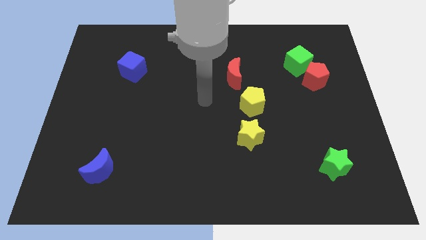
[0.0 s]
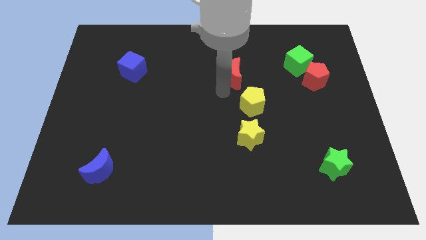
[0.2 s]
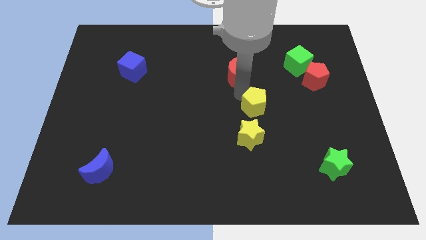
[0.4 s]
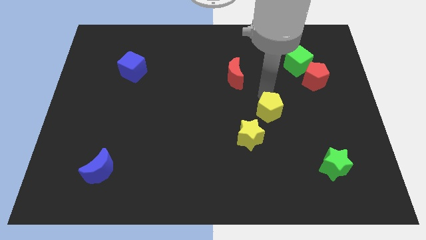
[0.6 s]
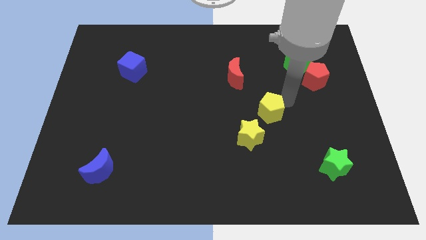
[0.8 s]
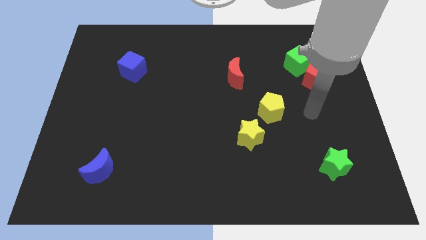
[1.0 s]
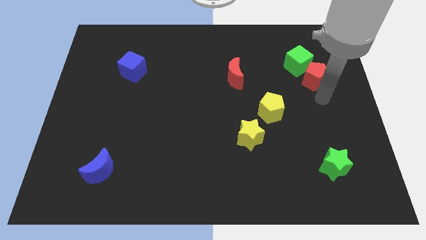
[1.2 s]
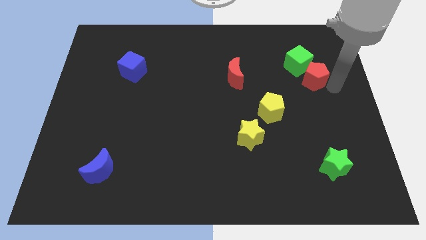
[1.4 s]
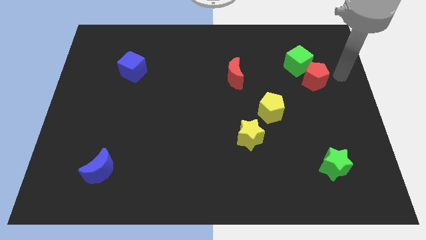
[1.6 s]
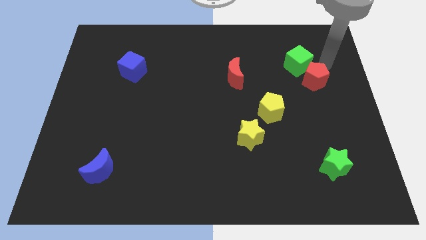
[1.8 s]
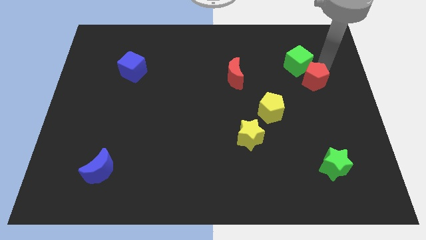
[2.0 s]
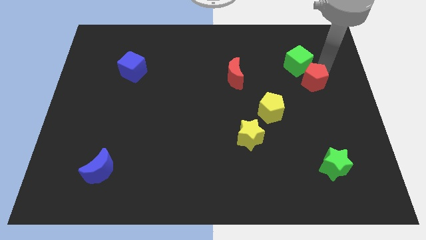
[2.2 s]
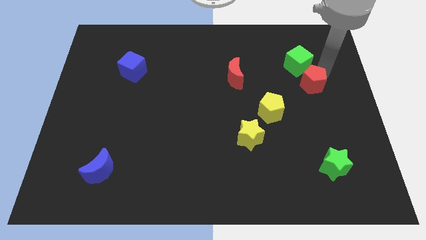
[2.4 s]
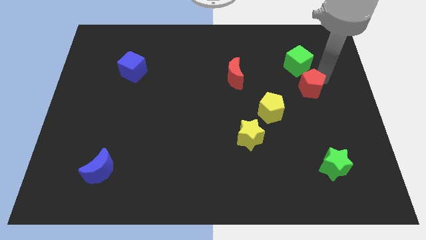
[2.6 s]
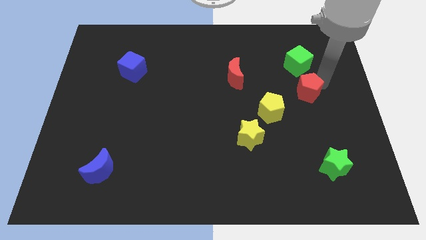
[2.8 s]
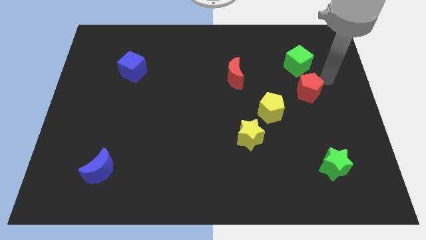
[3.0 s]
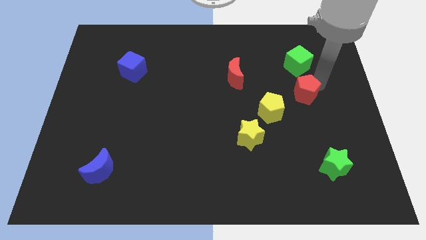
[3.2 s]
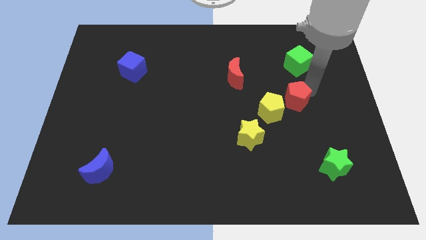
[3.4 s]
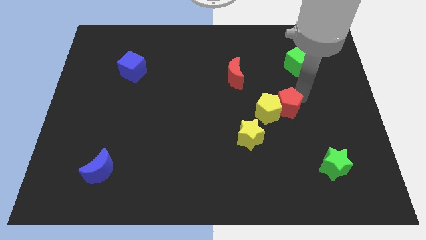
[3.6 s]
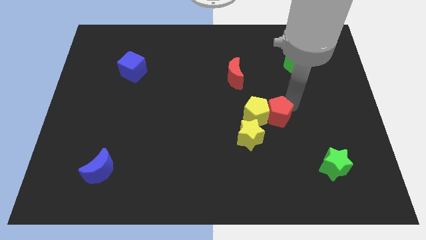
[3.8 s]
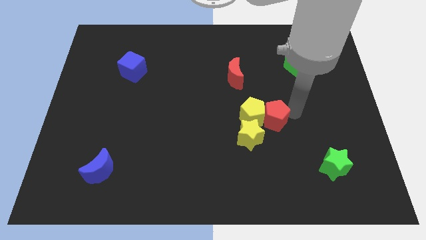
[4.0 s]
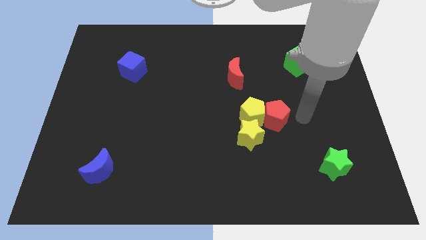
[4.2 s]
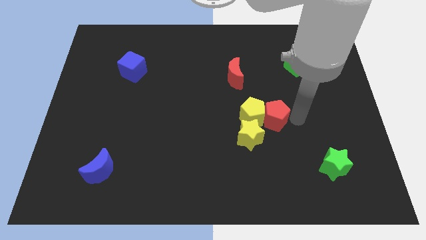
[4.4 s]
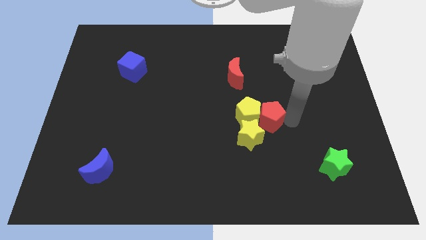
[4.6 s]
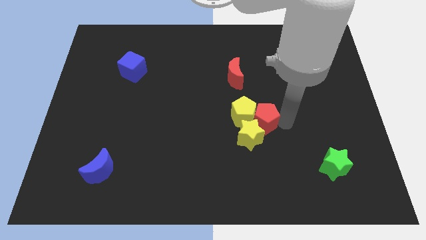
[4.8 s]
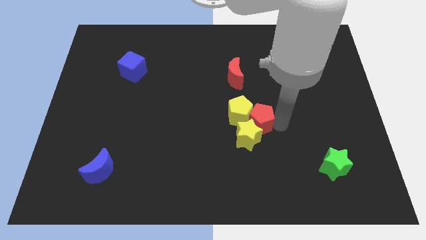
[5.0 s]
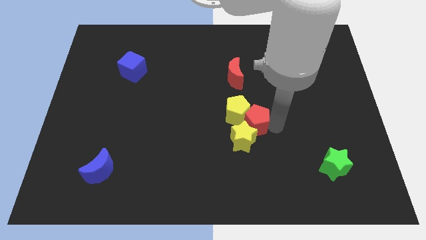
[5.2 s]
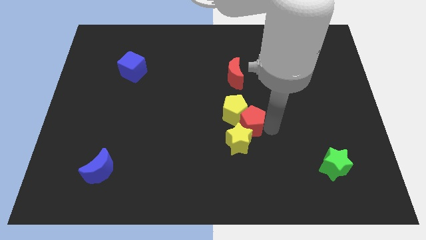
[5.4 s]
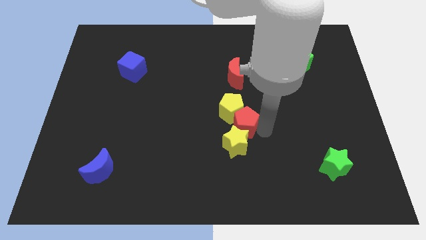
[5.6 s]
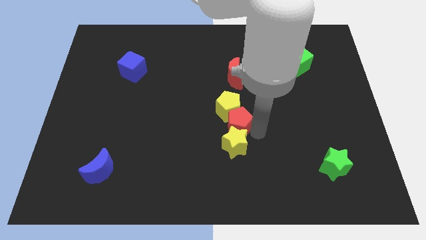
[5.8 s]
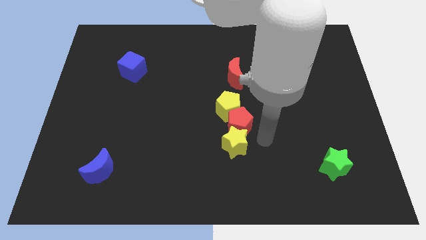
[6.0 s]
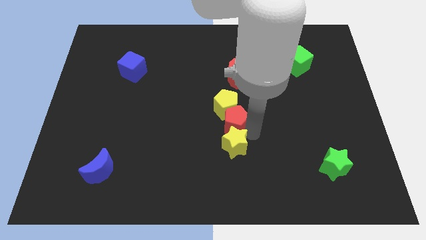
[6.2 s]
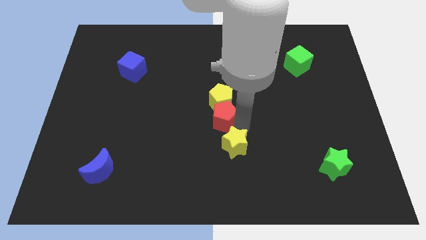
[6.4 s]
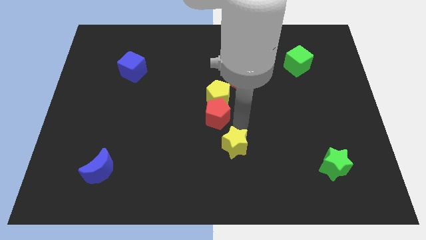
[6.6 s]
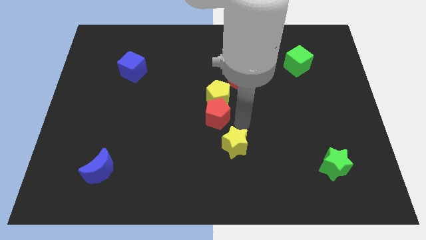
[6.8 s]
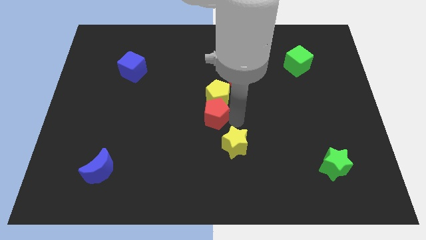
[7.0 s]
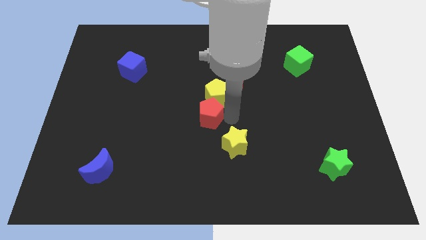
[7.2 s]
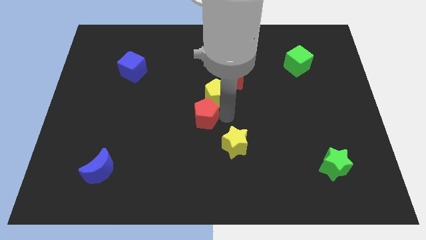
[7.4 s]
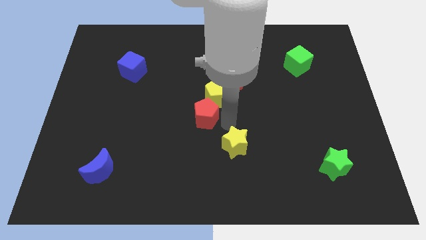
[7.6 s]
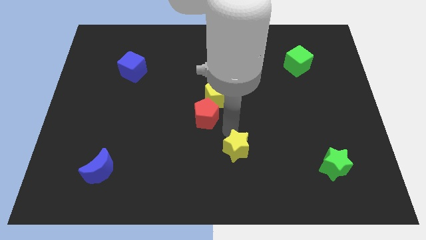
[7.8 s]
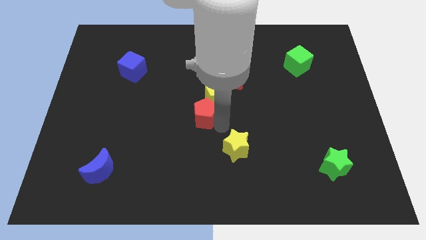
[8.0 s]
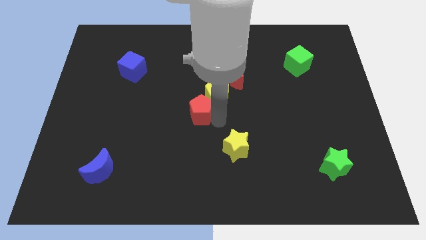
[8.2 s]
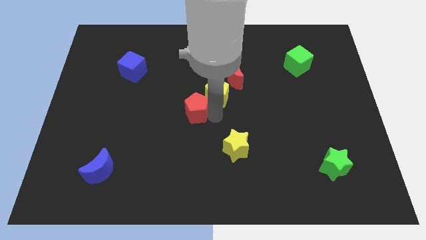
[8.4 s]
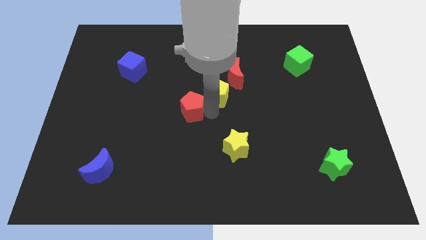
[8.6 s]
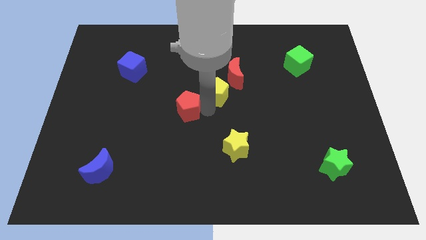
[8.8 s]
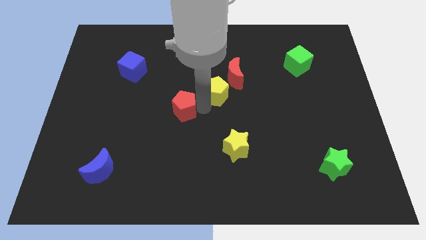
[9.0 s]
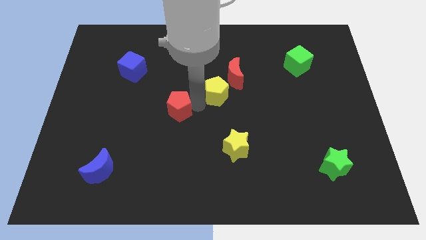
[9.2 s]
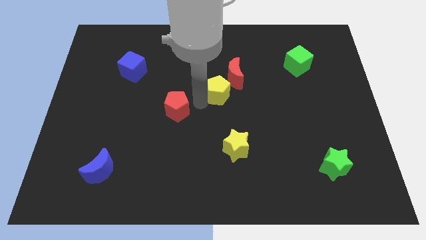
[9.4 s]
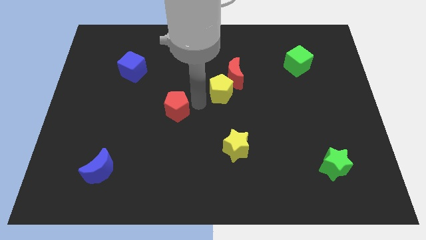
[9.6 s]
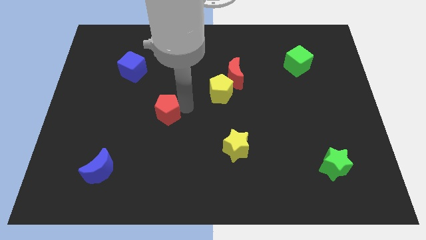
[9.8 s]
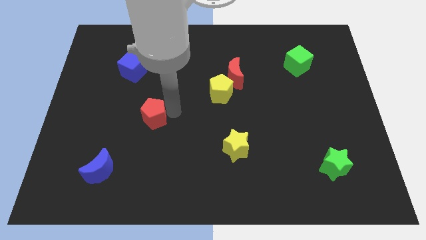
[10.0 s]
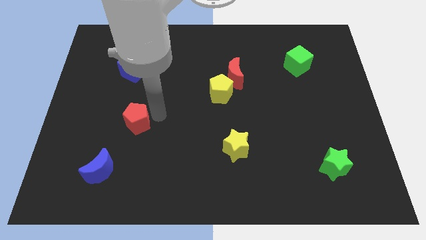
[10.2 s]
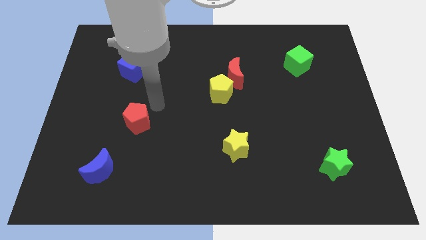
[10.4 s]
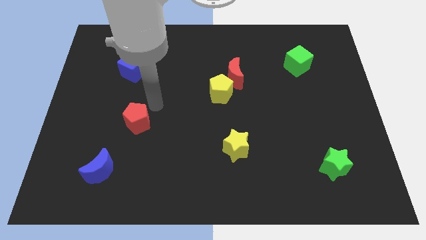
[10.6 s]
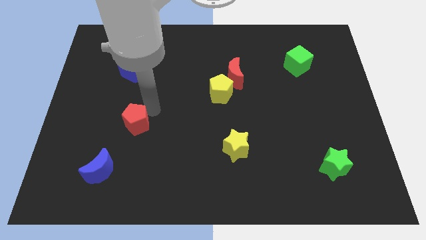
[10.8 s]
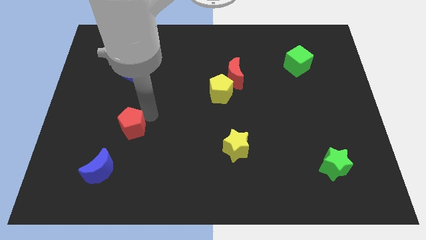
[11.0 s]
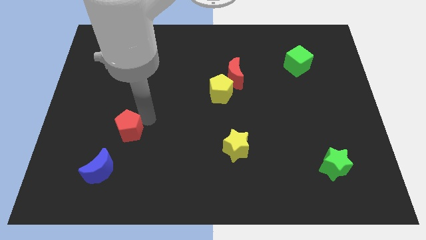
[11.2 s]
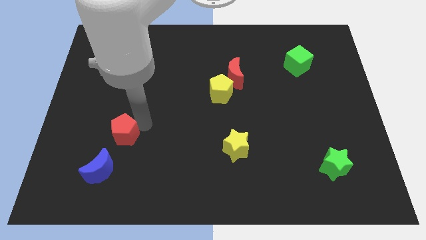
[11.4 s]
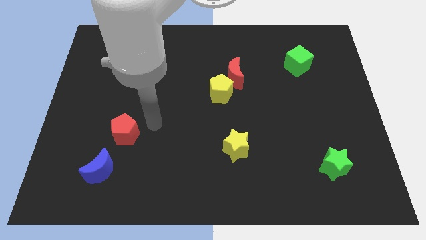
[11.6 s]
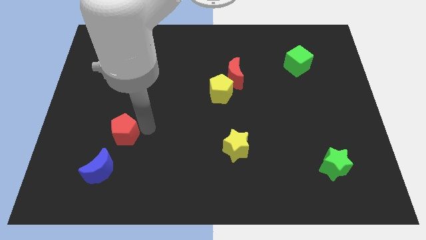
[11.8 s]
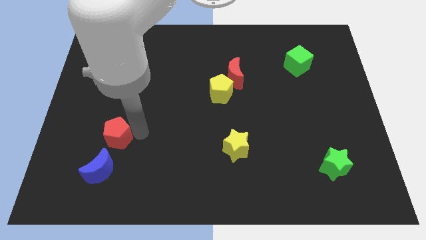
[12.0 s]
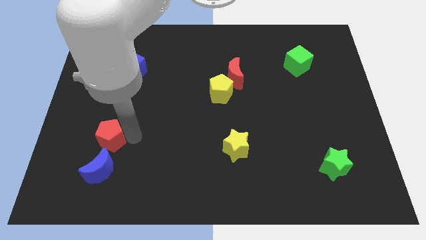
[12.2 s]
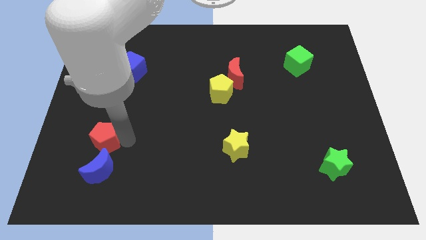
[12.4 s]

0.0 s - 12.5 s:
move the red pentagon to the top left side of the blue moon
